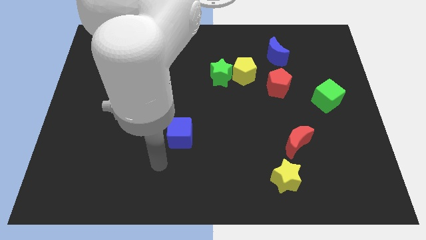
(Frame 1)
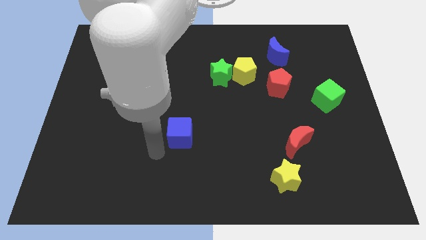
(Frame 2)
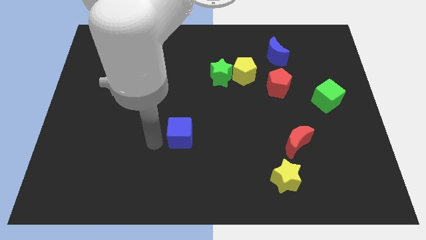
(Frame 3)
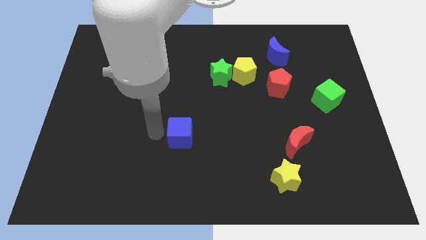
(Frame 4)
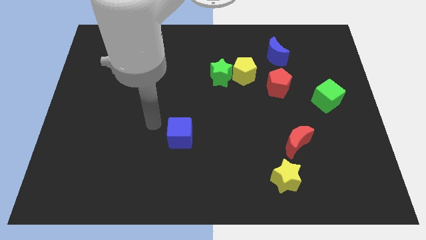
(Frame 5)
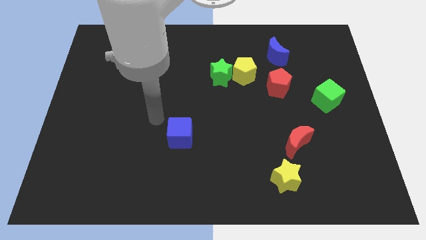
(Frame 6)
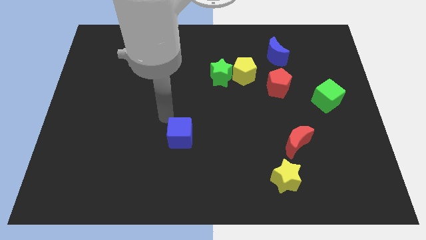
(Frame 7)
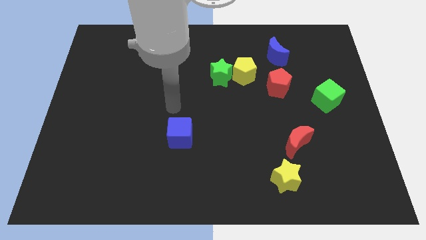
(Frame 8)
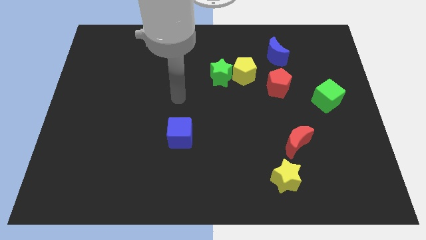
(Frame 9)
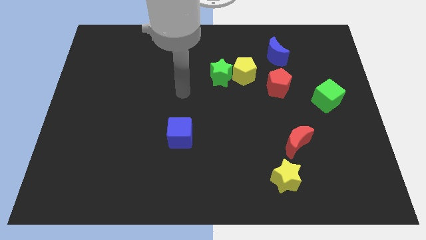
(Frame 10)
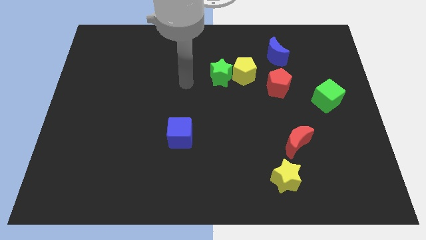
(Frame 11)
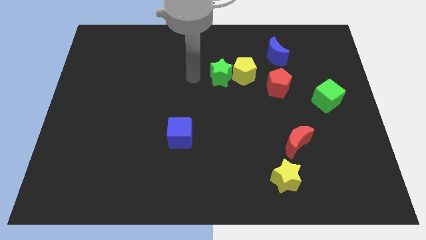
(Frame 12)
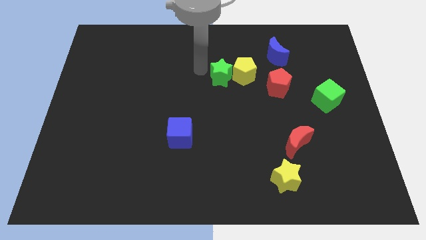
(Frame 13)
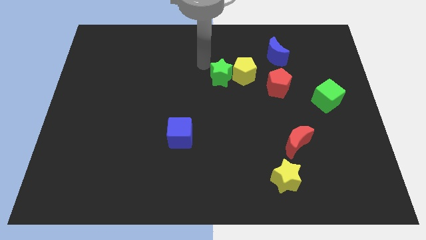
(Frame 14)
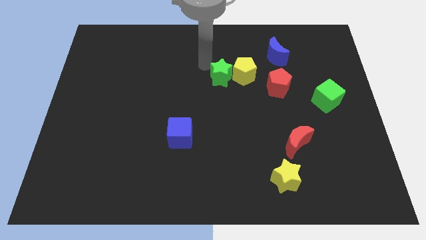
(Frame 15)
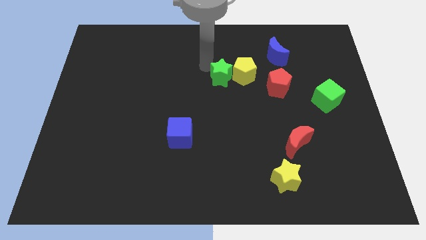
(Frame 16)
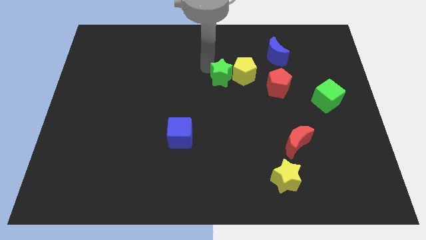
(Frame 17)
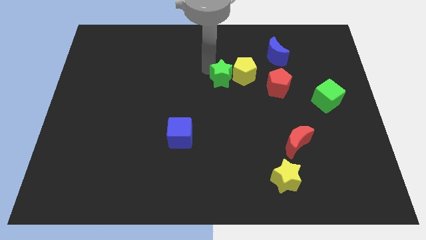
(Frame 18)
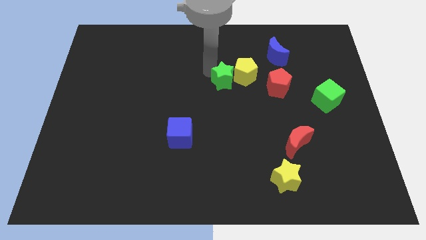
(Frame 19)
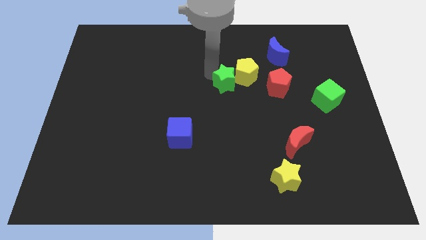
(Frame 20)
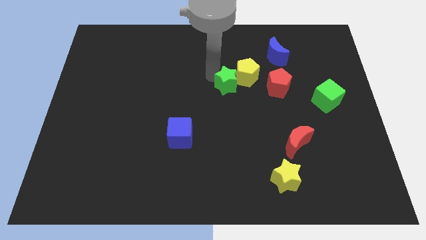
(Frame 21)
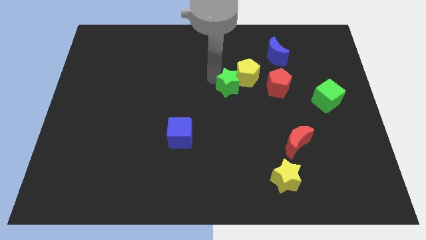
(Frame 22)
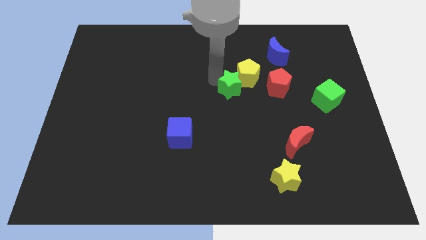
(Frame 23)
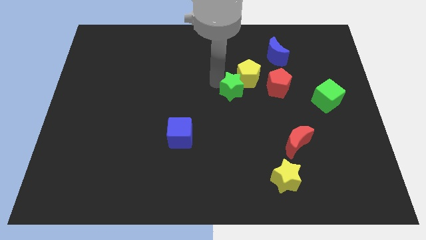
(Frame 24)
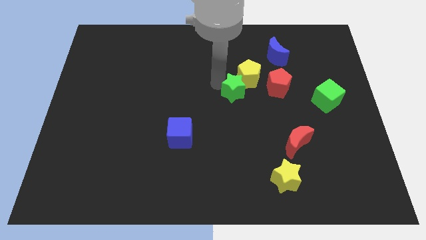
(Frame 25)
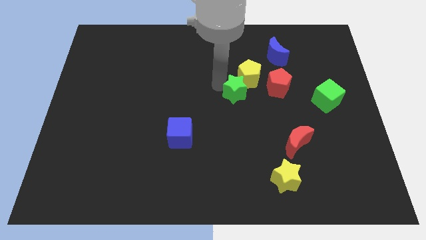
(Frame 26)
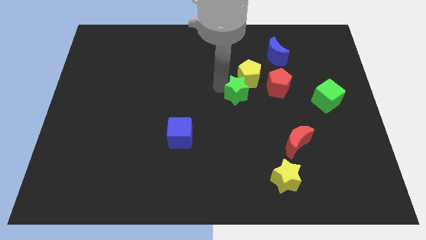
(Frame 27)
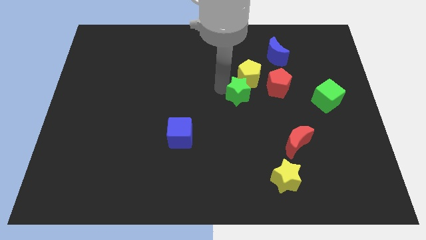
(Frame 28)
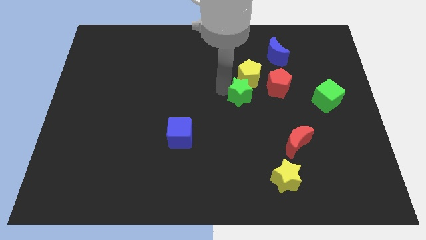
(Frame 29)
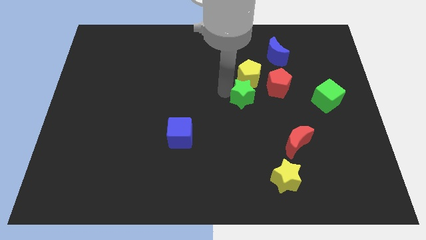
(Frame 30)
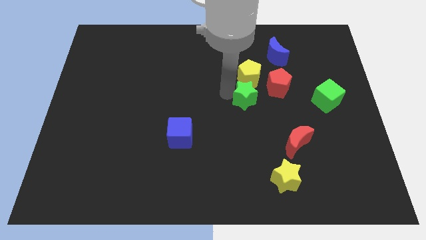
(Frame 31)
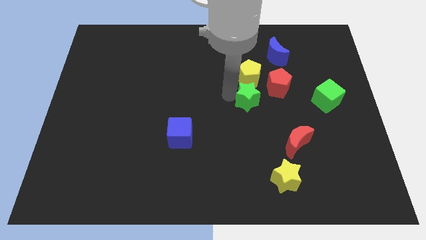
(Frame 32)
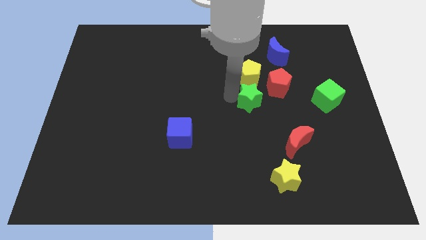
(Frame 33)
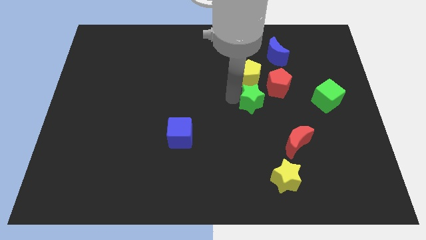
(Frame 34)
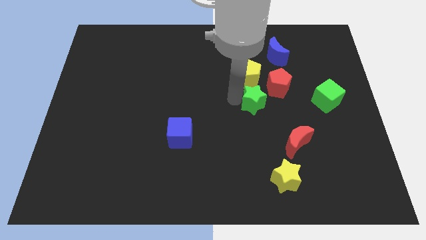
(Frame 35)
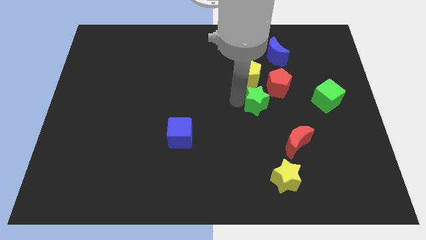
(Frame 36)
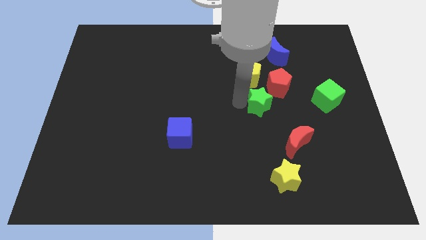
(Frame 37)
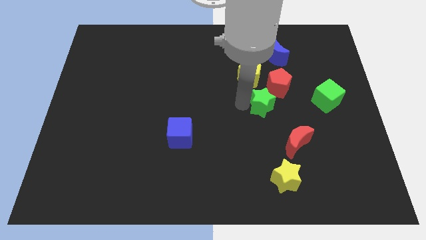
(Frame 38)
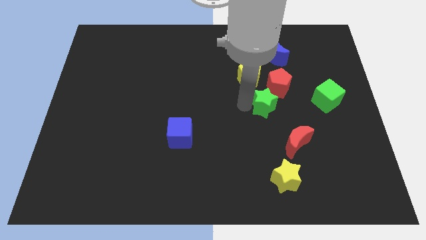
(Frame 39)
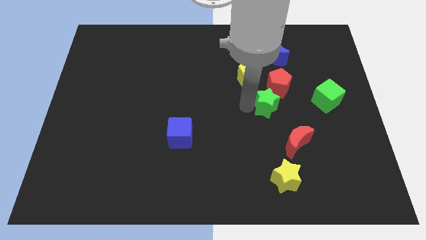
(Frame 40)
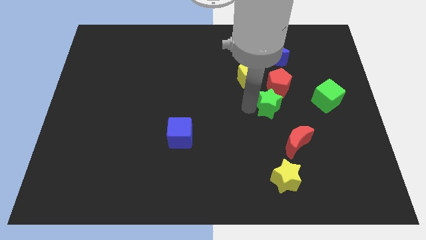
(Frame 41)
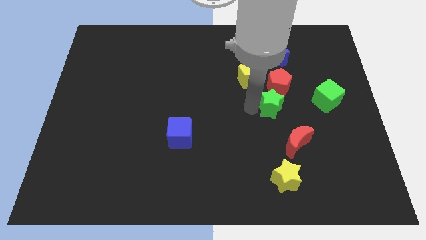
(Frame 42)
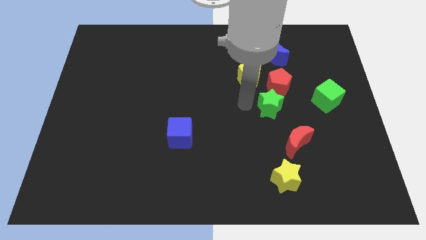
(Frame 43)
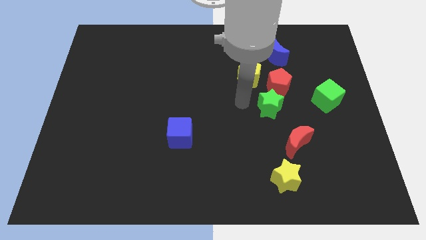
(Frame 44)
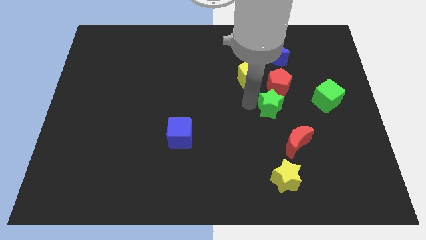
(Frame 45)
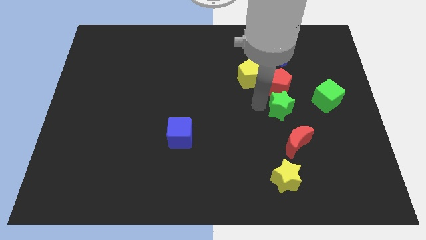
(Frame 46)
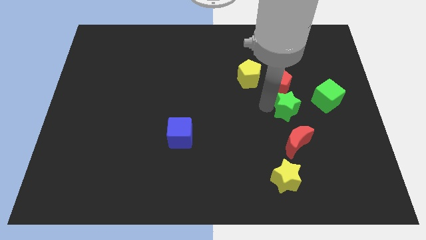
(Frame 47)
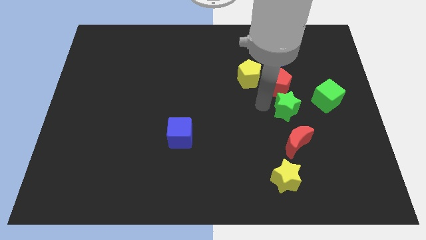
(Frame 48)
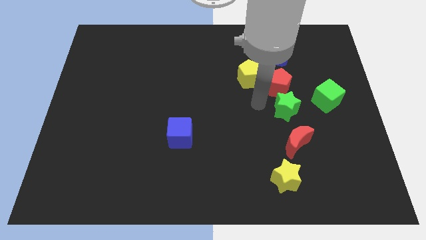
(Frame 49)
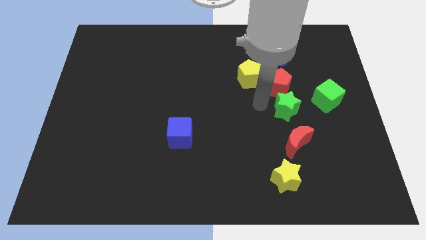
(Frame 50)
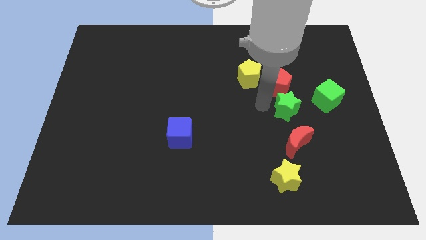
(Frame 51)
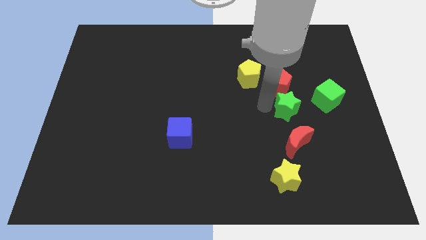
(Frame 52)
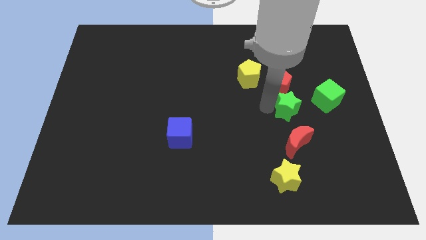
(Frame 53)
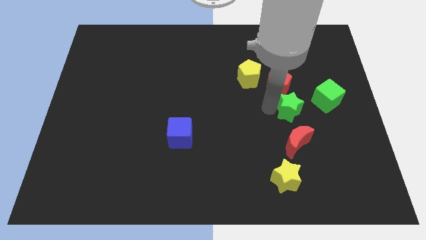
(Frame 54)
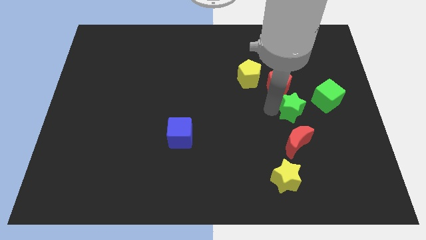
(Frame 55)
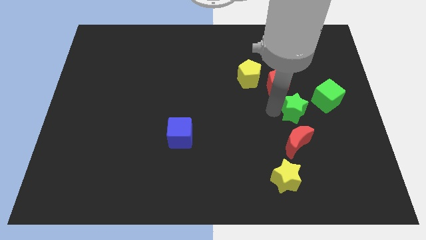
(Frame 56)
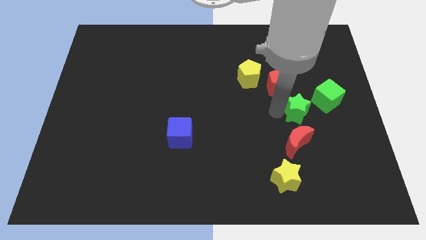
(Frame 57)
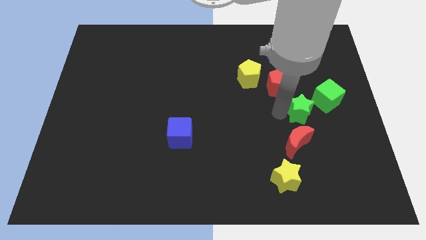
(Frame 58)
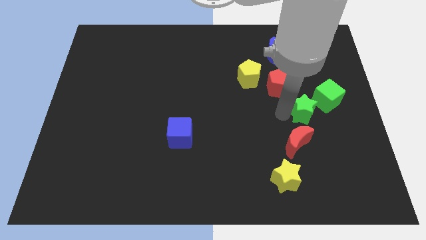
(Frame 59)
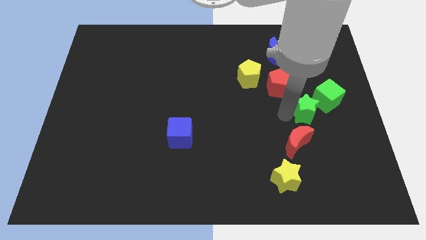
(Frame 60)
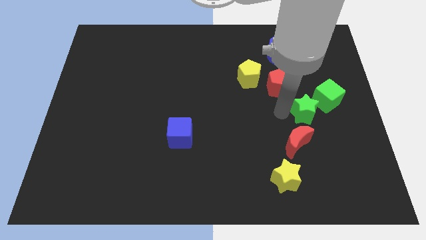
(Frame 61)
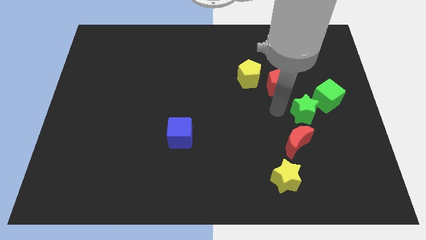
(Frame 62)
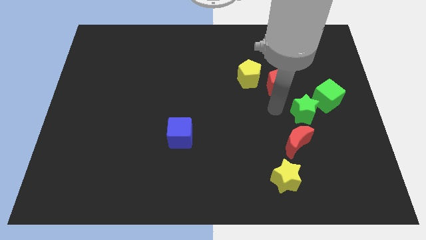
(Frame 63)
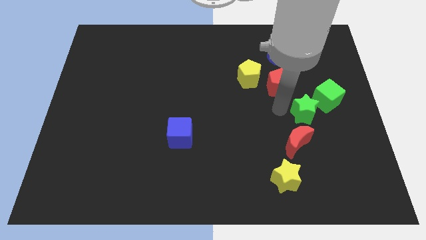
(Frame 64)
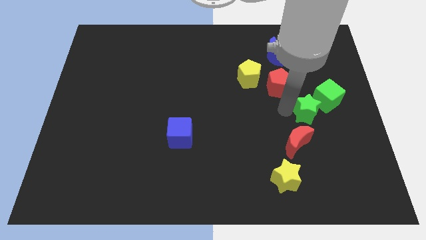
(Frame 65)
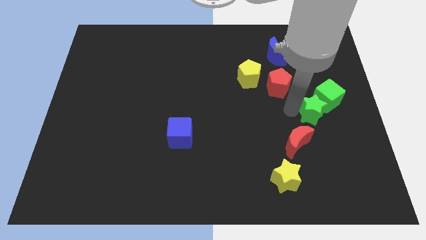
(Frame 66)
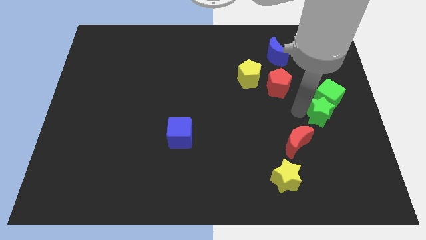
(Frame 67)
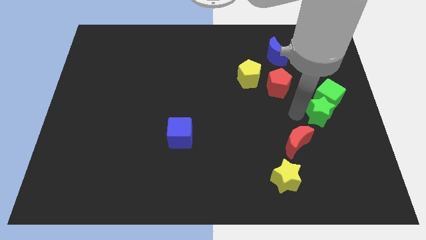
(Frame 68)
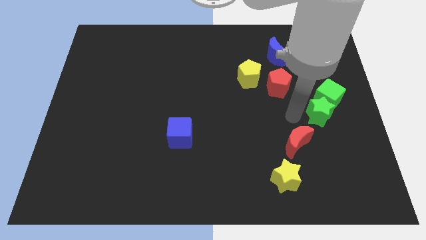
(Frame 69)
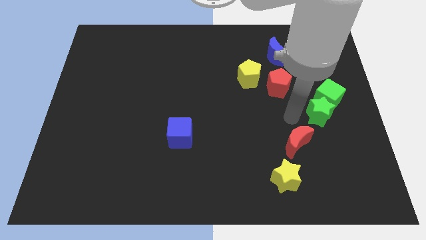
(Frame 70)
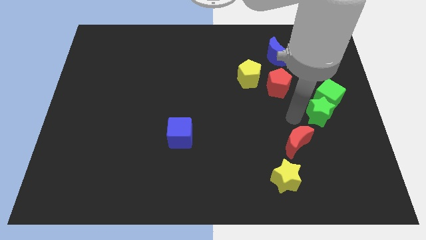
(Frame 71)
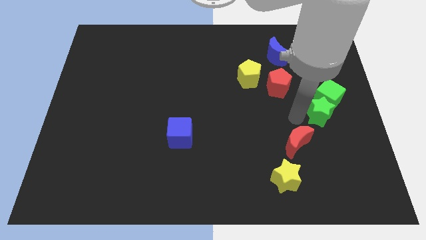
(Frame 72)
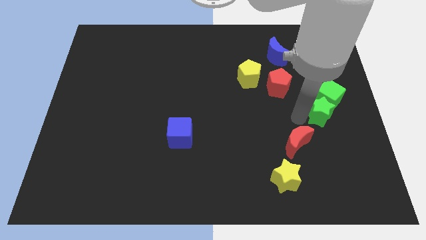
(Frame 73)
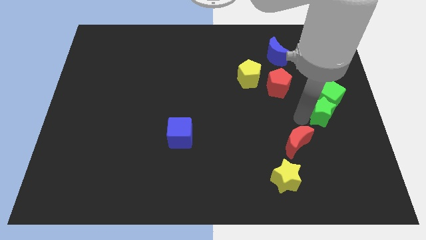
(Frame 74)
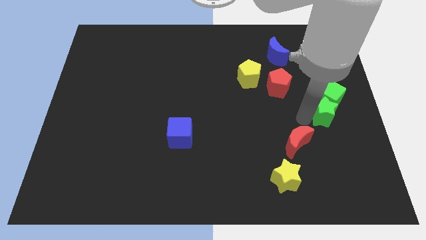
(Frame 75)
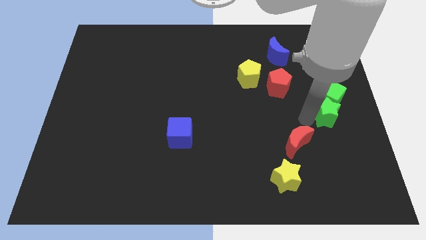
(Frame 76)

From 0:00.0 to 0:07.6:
push the green star to the right side
